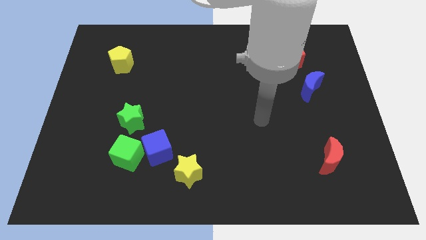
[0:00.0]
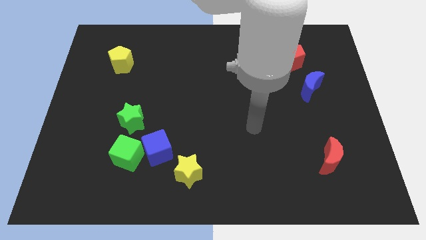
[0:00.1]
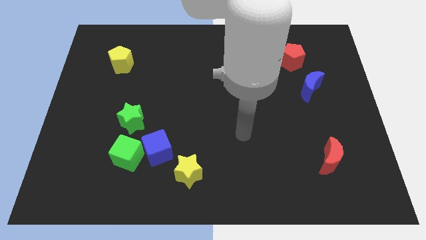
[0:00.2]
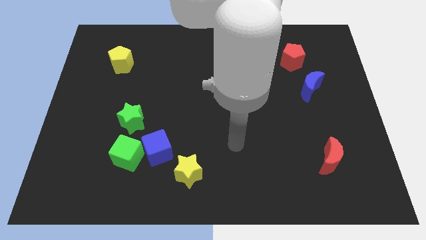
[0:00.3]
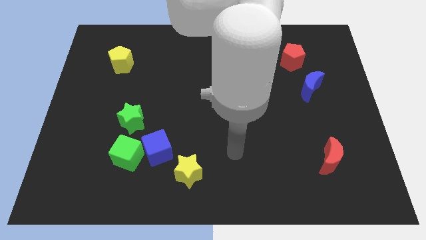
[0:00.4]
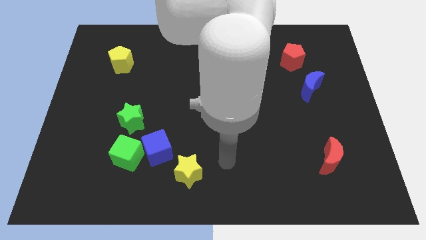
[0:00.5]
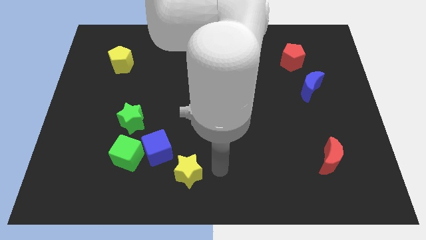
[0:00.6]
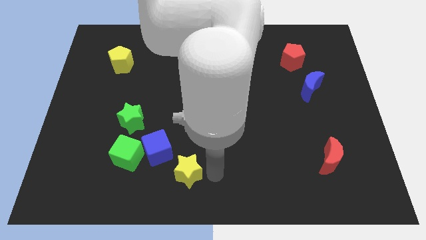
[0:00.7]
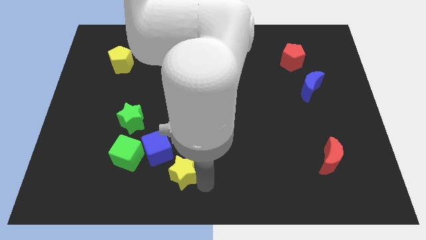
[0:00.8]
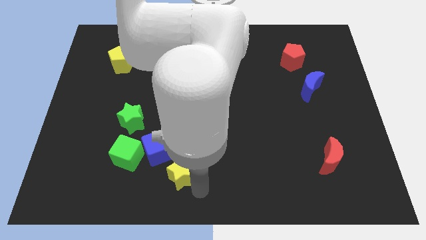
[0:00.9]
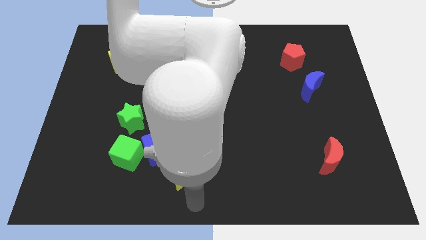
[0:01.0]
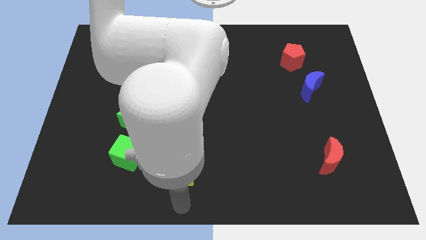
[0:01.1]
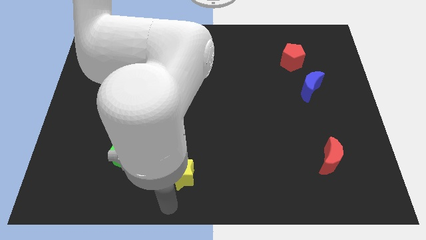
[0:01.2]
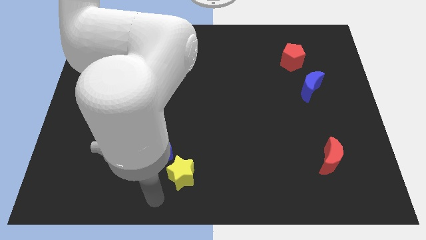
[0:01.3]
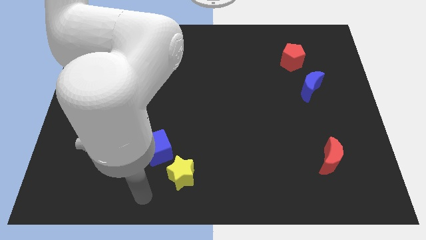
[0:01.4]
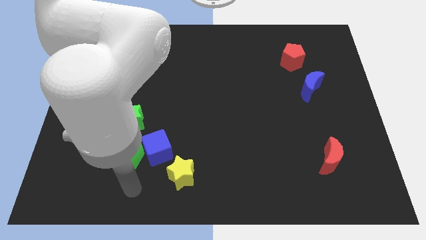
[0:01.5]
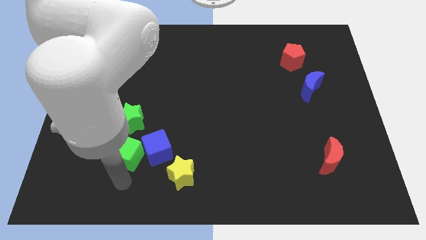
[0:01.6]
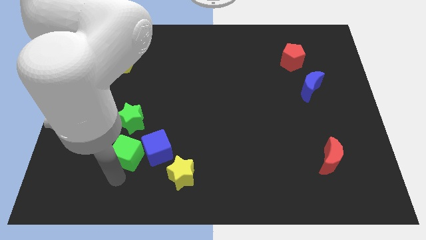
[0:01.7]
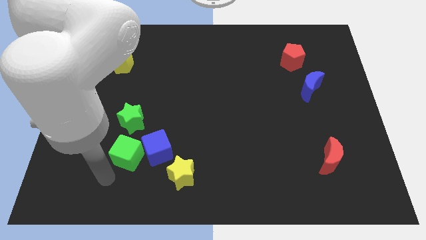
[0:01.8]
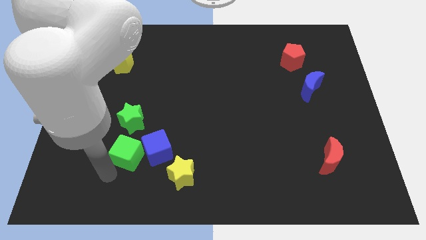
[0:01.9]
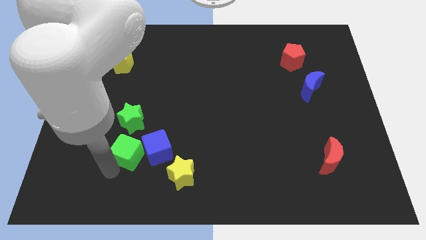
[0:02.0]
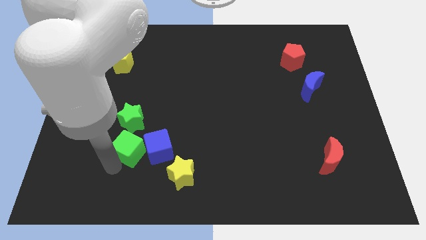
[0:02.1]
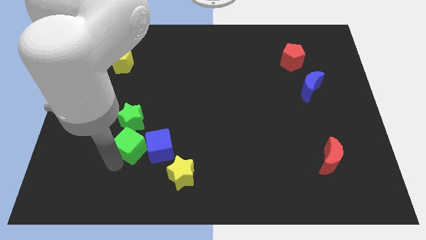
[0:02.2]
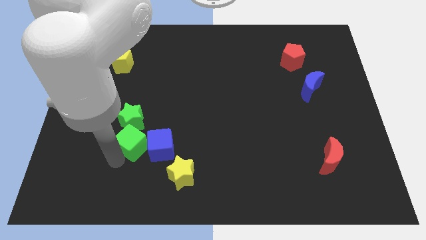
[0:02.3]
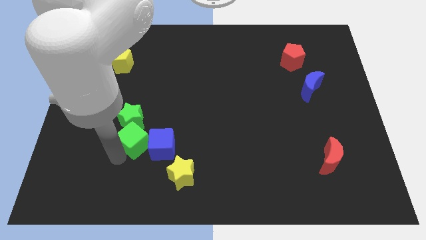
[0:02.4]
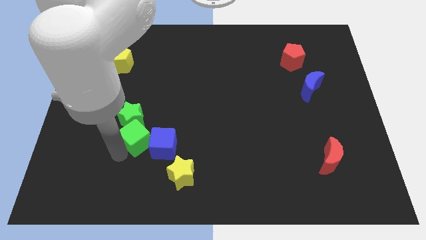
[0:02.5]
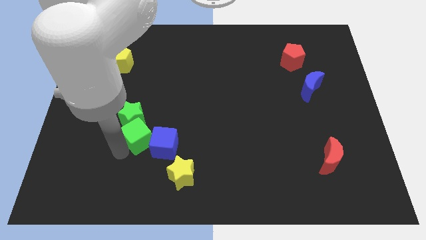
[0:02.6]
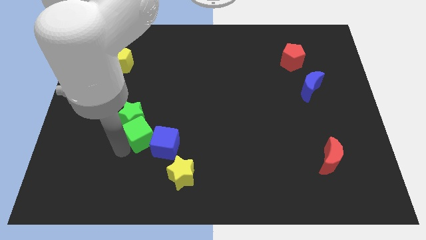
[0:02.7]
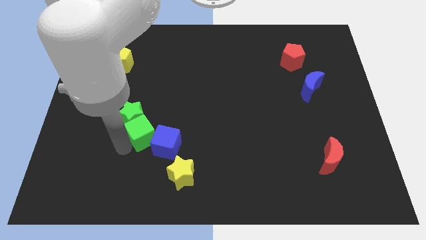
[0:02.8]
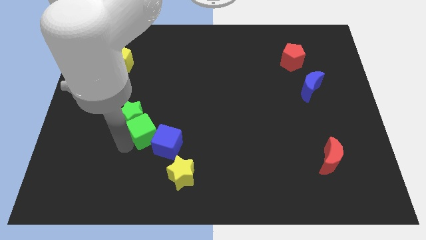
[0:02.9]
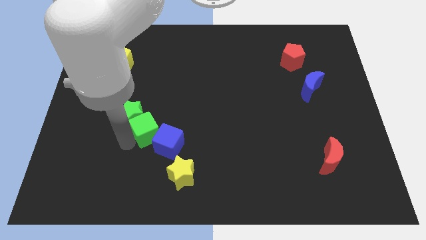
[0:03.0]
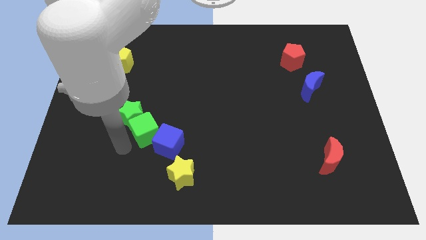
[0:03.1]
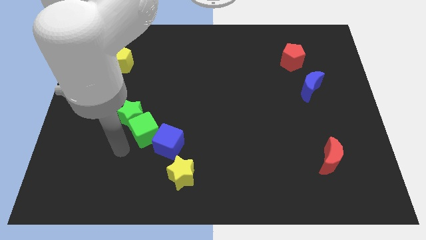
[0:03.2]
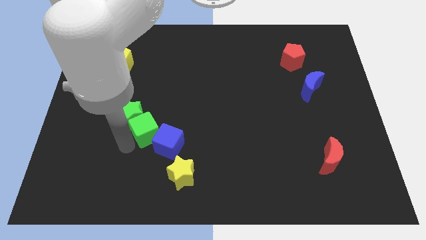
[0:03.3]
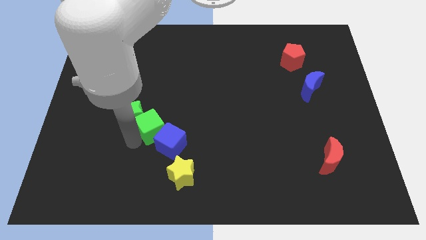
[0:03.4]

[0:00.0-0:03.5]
move the green cube slightly up and right diagonally

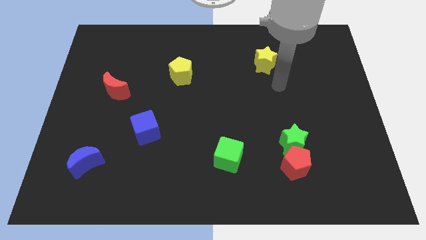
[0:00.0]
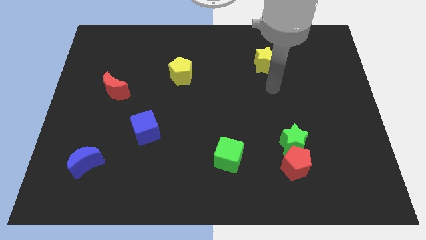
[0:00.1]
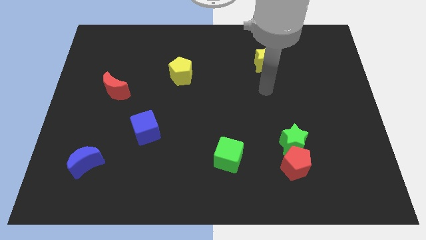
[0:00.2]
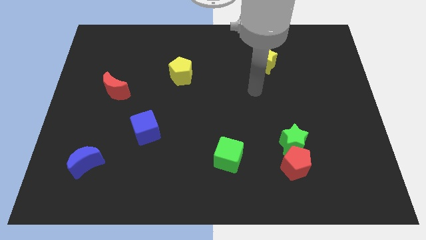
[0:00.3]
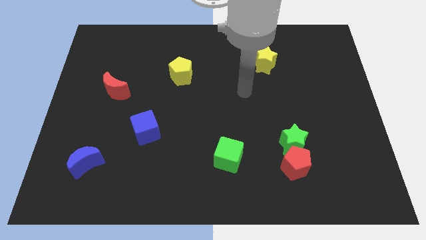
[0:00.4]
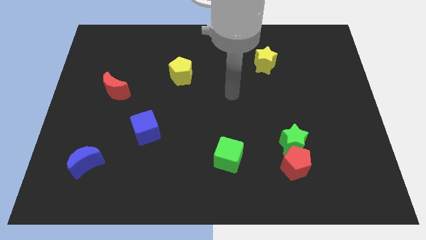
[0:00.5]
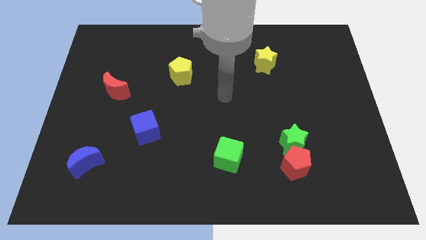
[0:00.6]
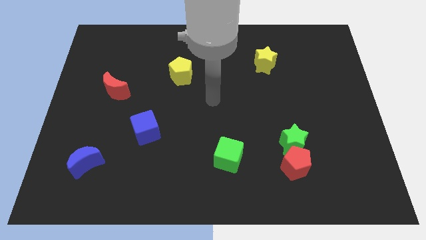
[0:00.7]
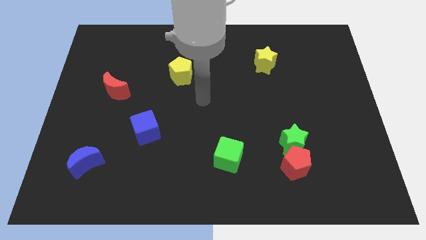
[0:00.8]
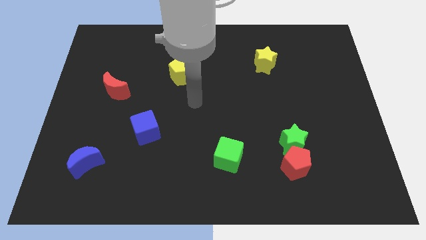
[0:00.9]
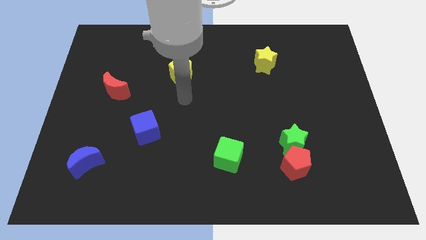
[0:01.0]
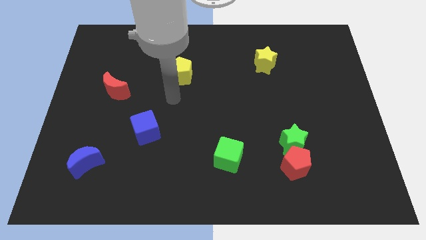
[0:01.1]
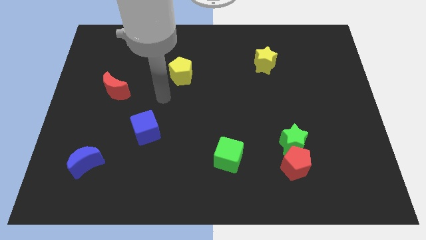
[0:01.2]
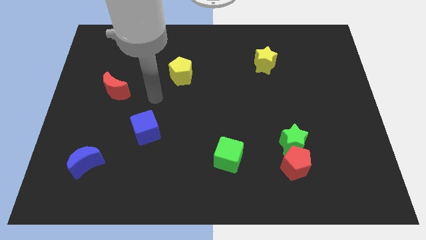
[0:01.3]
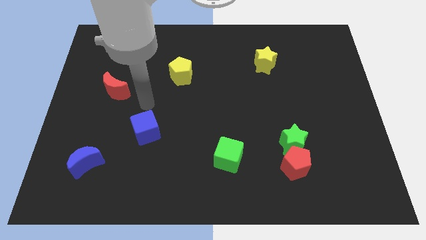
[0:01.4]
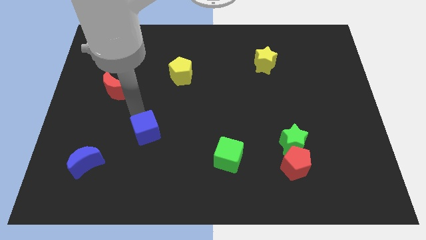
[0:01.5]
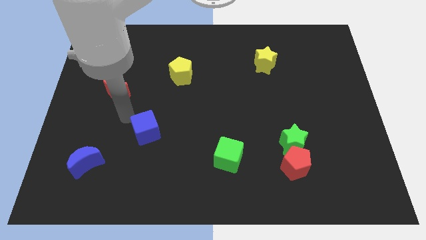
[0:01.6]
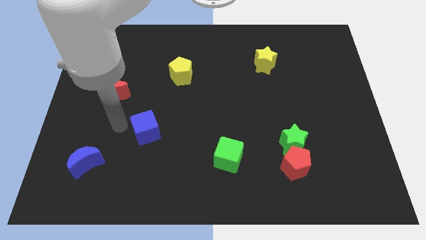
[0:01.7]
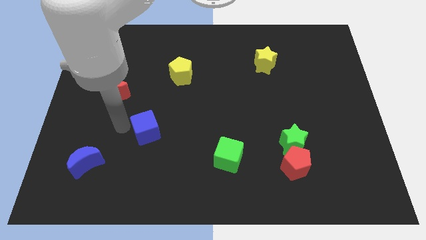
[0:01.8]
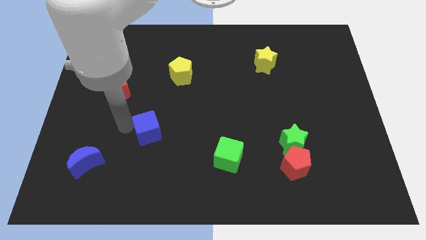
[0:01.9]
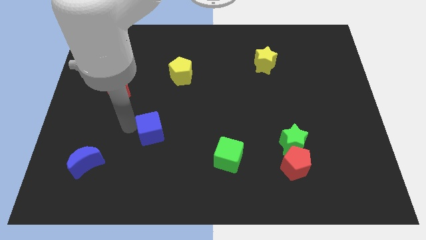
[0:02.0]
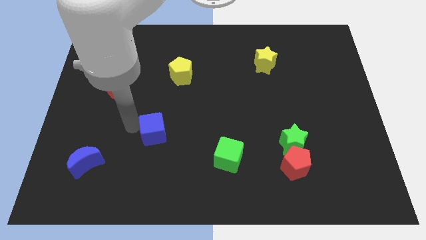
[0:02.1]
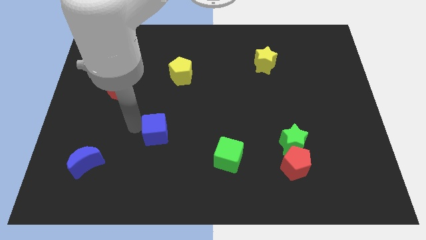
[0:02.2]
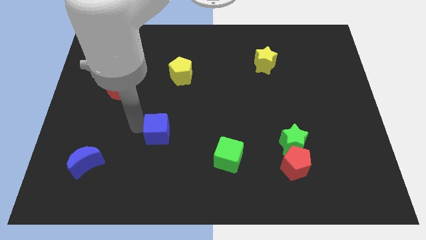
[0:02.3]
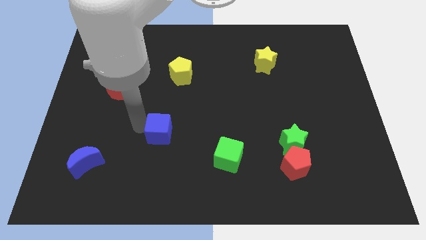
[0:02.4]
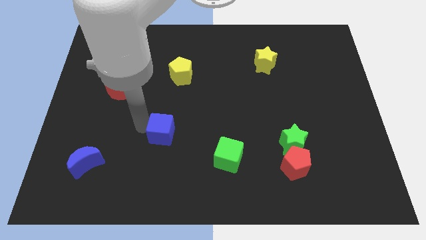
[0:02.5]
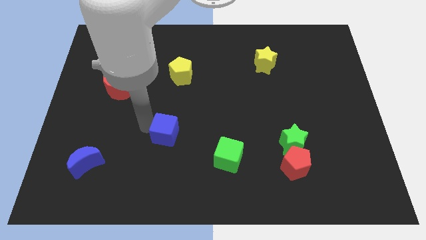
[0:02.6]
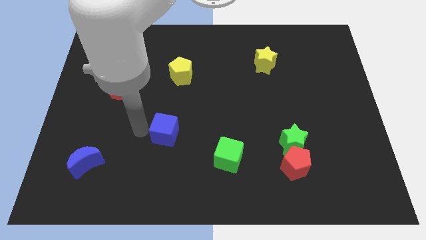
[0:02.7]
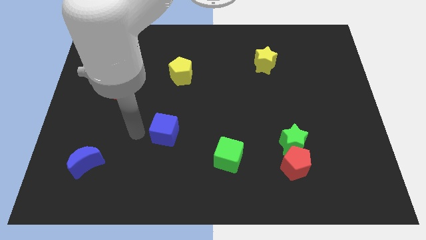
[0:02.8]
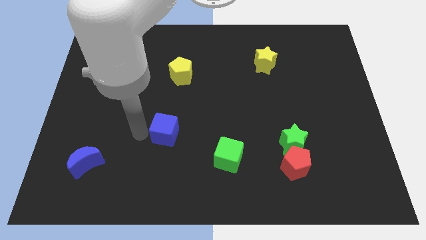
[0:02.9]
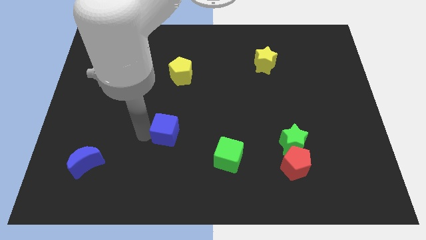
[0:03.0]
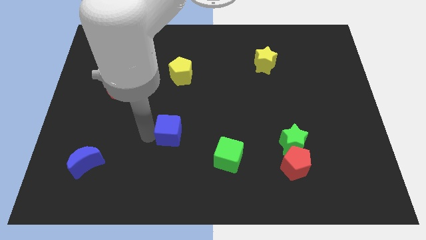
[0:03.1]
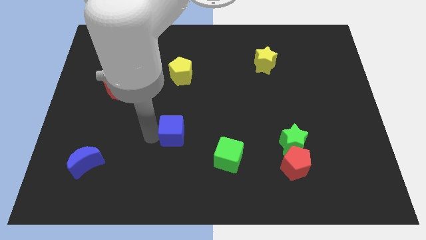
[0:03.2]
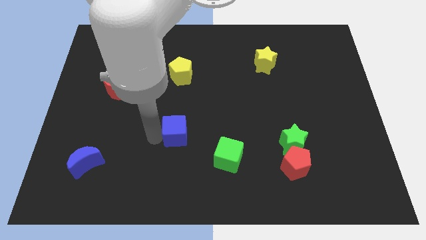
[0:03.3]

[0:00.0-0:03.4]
slightly push the blue cube right

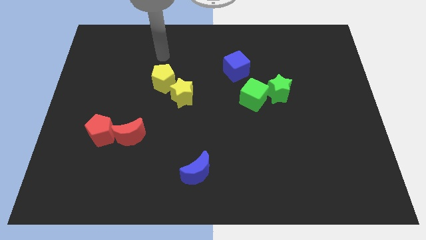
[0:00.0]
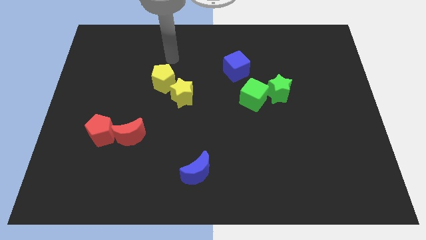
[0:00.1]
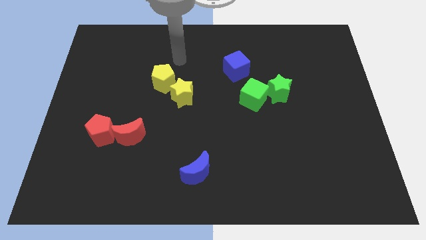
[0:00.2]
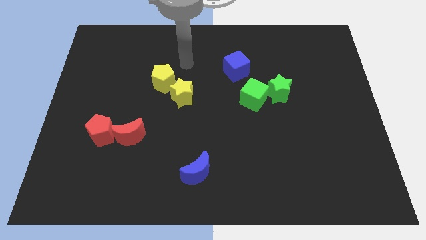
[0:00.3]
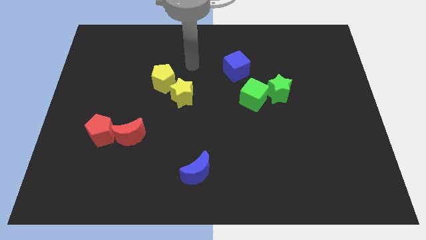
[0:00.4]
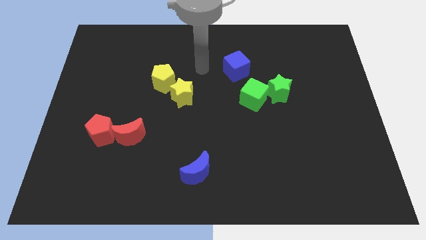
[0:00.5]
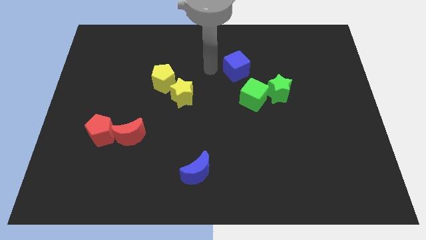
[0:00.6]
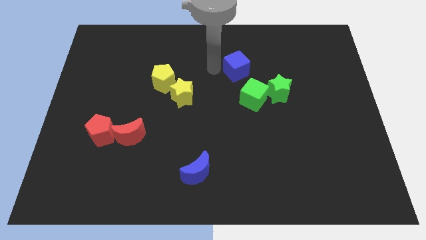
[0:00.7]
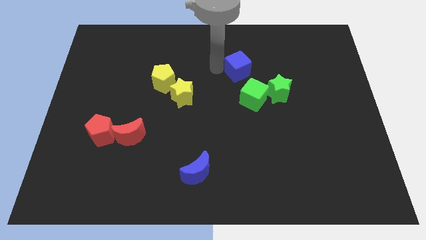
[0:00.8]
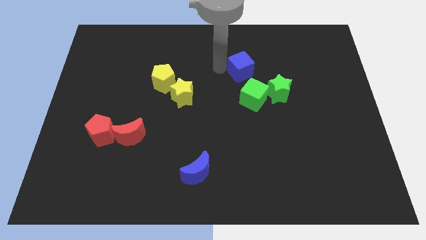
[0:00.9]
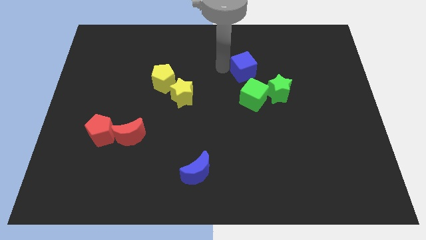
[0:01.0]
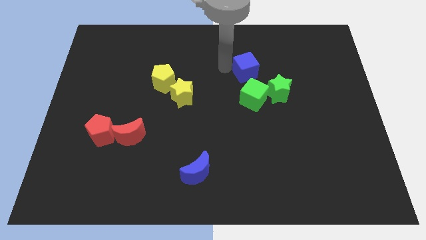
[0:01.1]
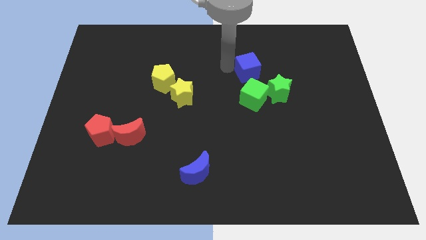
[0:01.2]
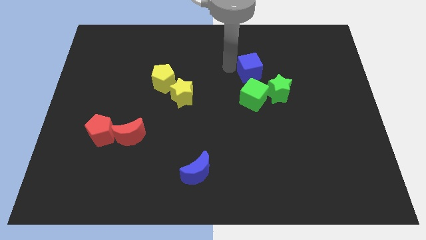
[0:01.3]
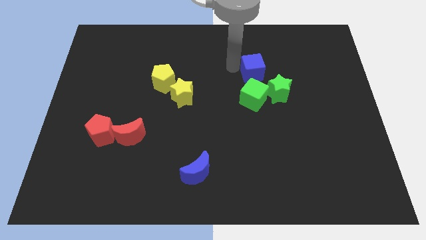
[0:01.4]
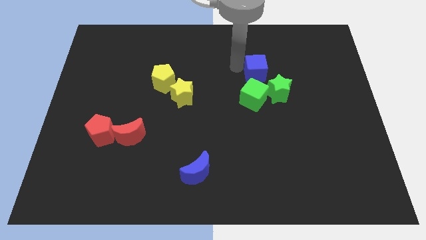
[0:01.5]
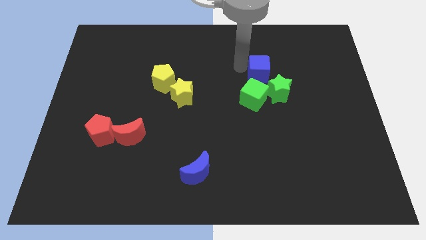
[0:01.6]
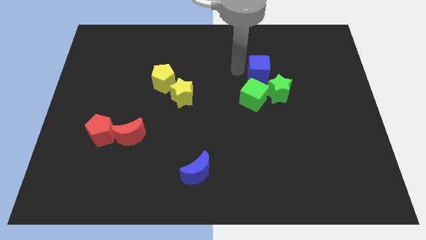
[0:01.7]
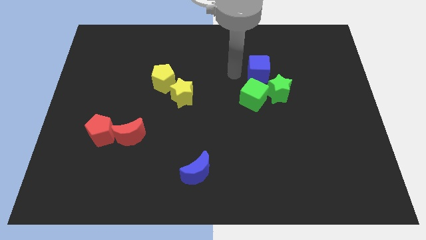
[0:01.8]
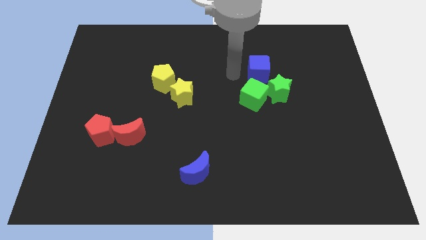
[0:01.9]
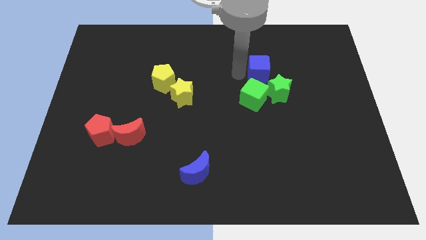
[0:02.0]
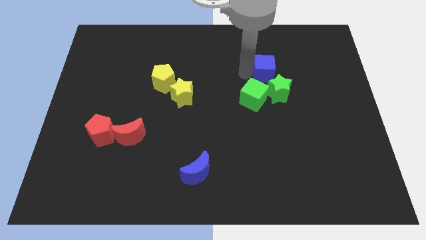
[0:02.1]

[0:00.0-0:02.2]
slightly move the blue cube to the right
